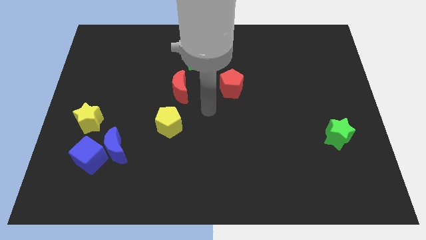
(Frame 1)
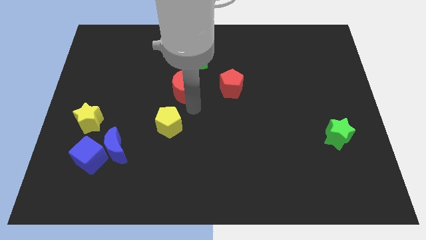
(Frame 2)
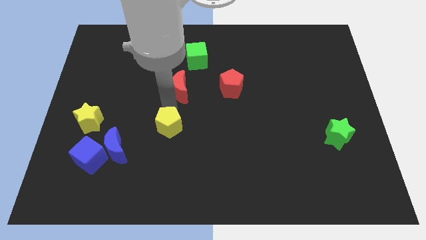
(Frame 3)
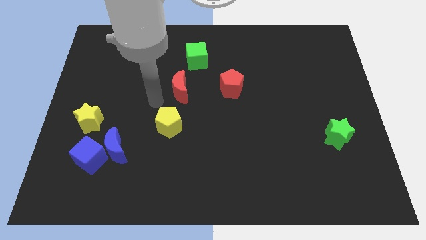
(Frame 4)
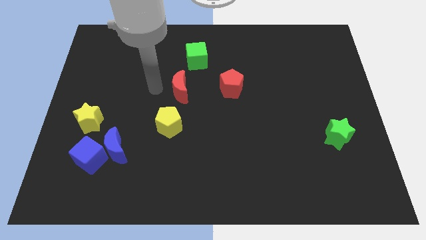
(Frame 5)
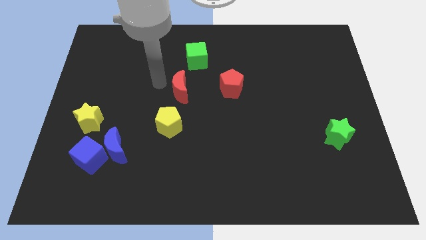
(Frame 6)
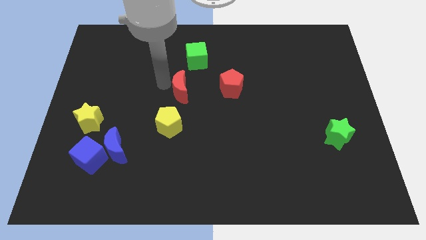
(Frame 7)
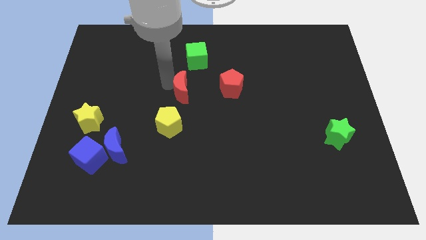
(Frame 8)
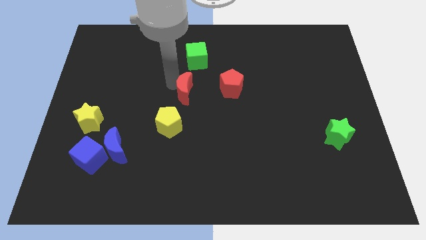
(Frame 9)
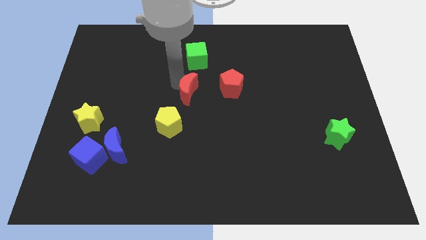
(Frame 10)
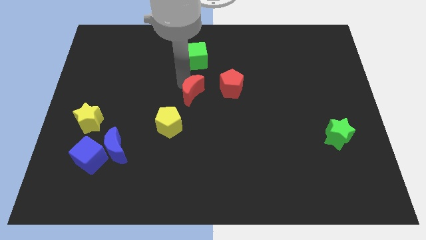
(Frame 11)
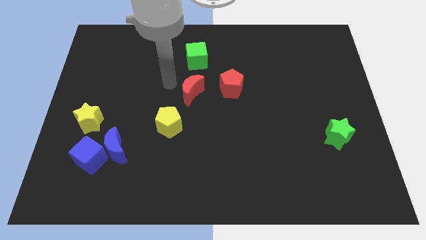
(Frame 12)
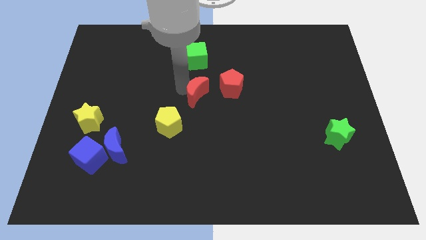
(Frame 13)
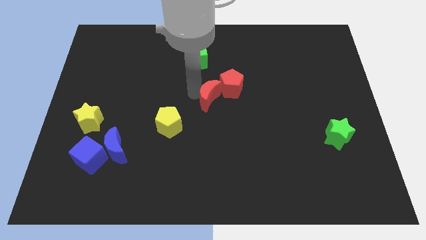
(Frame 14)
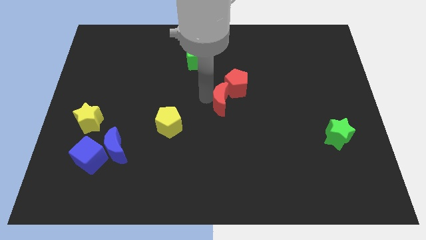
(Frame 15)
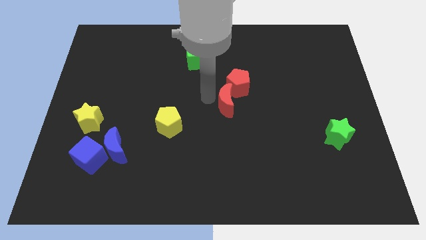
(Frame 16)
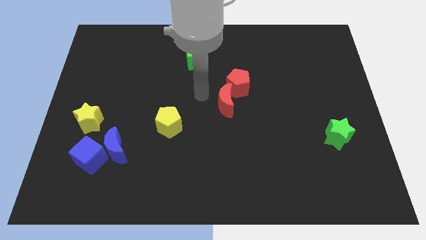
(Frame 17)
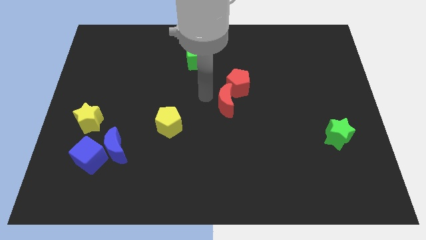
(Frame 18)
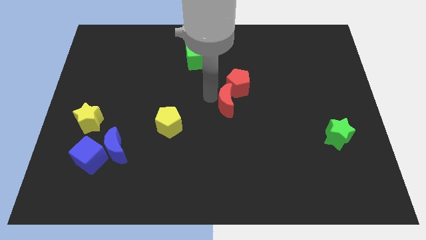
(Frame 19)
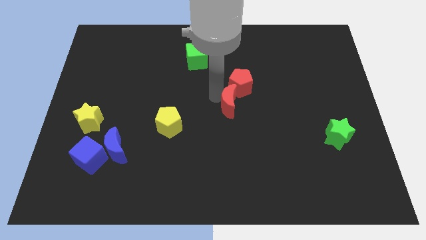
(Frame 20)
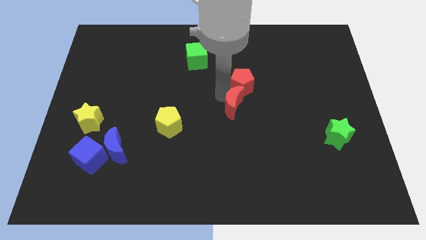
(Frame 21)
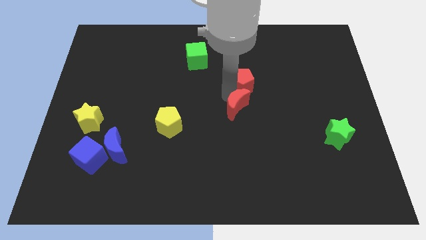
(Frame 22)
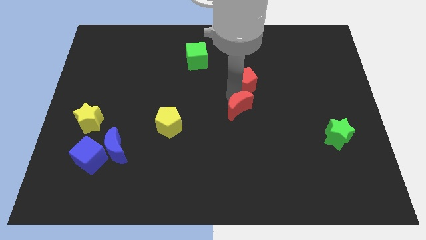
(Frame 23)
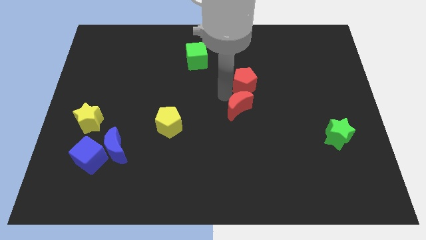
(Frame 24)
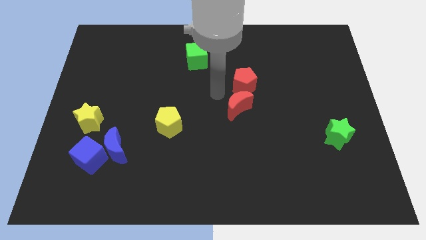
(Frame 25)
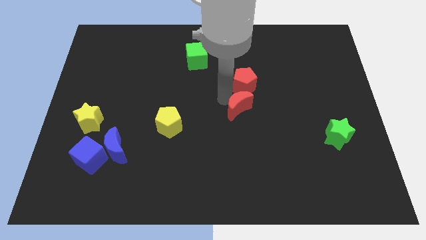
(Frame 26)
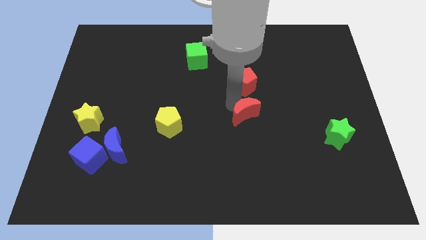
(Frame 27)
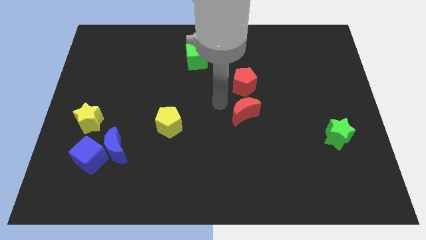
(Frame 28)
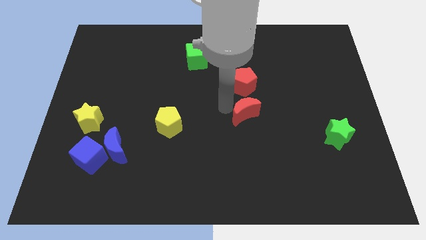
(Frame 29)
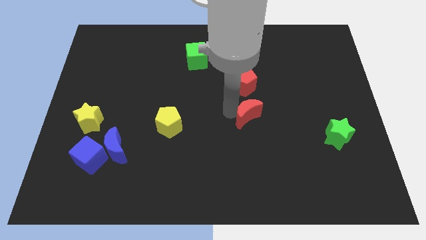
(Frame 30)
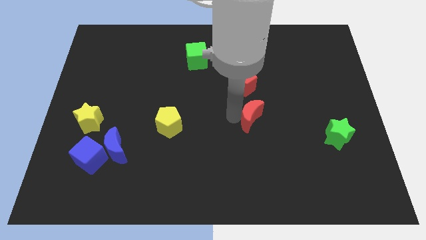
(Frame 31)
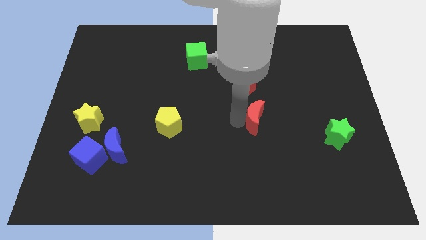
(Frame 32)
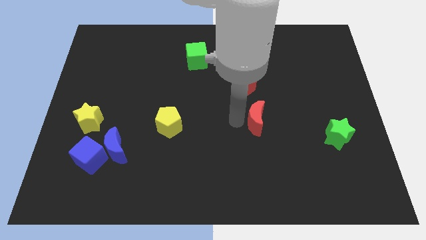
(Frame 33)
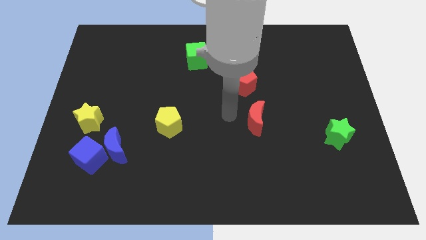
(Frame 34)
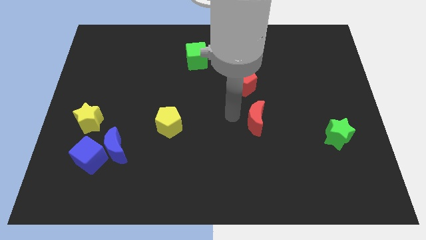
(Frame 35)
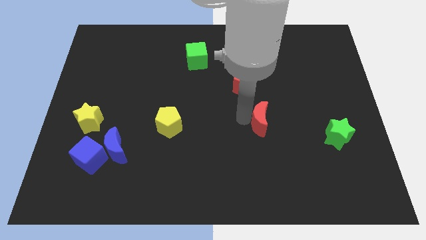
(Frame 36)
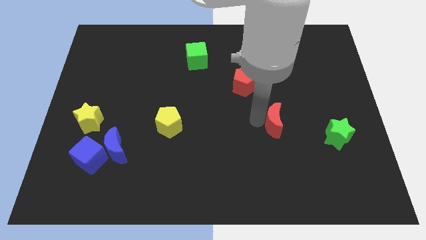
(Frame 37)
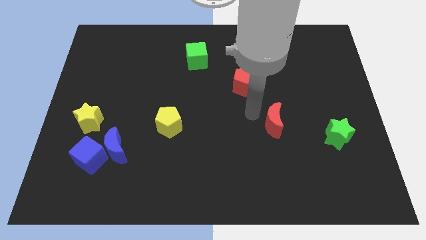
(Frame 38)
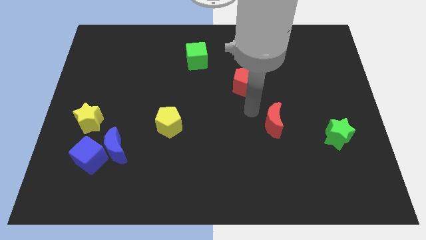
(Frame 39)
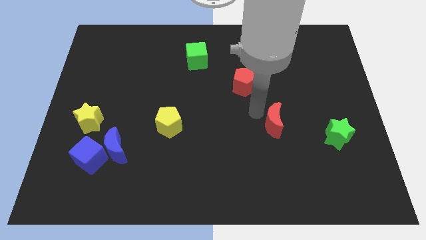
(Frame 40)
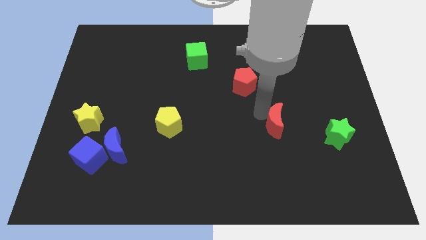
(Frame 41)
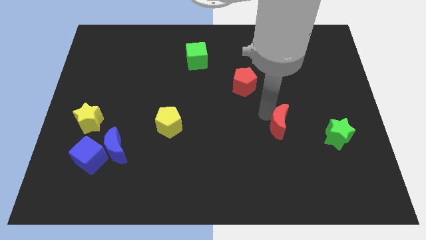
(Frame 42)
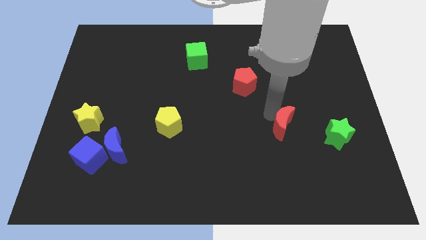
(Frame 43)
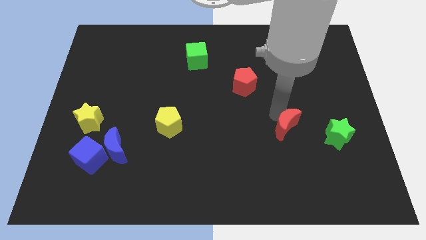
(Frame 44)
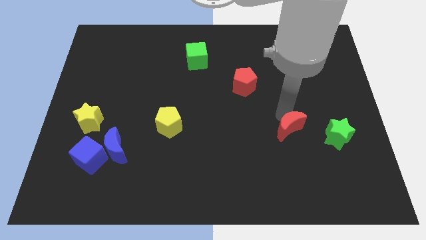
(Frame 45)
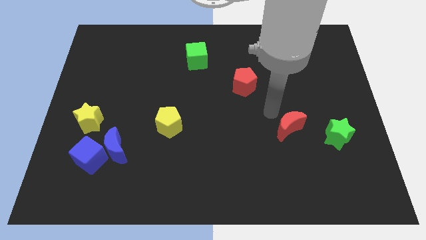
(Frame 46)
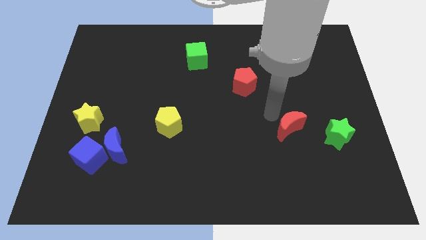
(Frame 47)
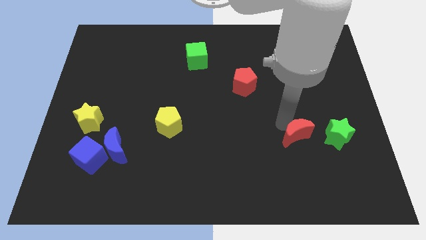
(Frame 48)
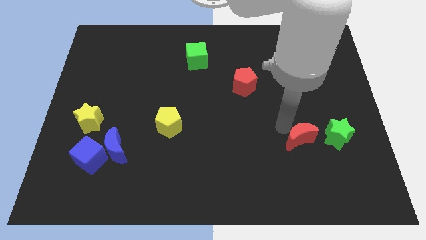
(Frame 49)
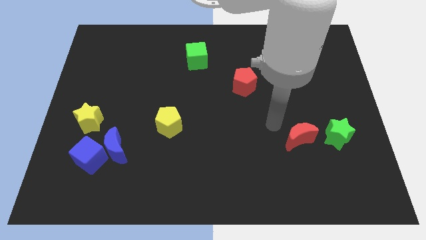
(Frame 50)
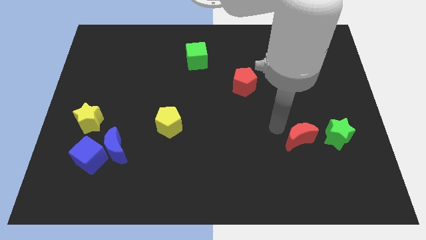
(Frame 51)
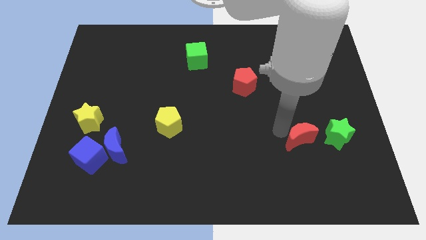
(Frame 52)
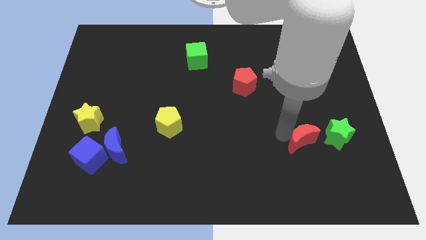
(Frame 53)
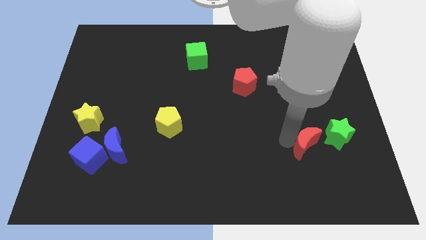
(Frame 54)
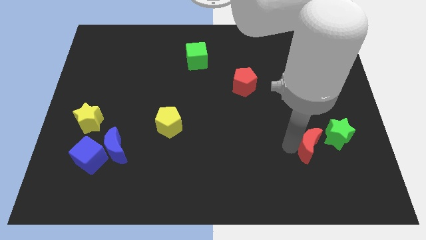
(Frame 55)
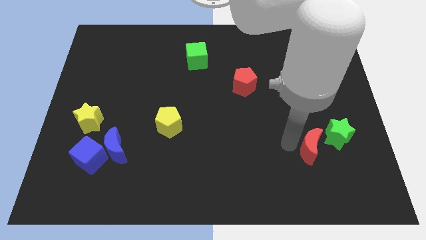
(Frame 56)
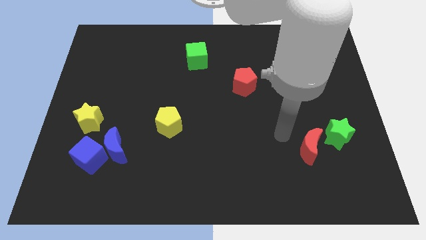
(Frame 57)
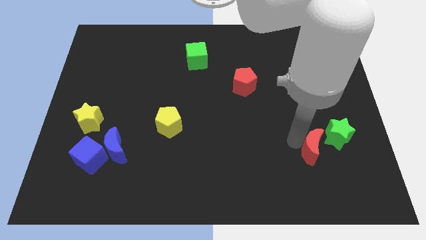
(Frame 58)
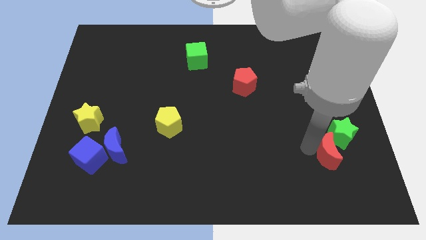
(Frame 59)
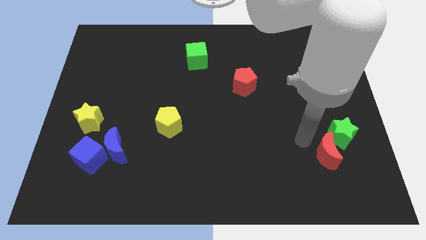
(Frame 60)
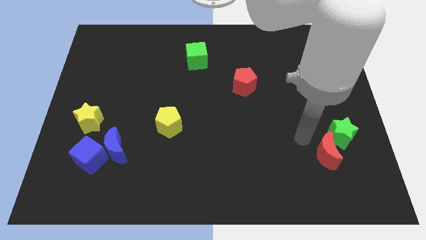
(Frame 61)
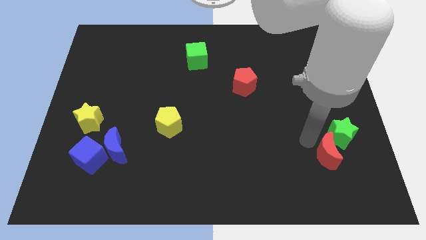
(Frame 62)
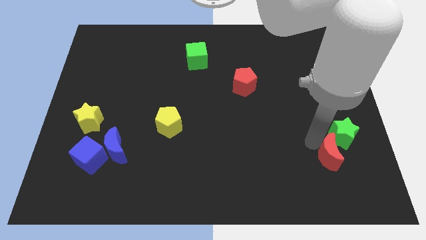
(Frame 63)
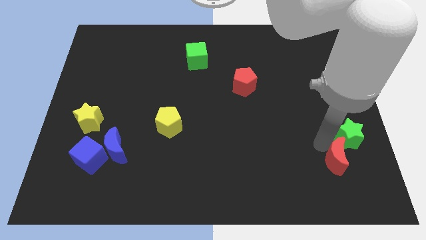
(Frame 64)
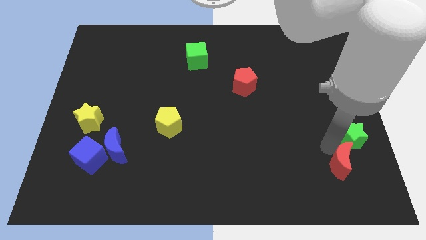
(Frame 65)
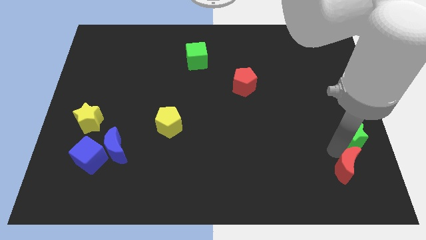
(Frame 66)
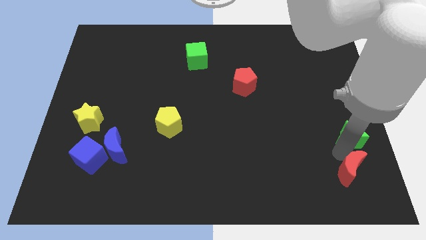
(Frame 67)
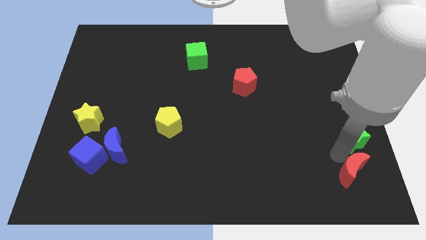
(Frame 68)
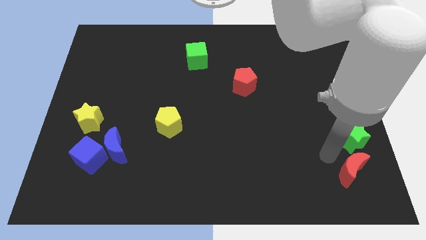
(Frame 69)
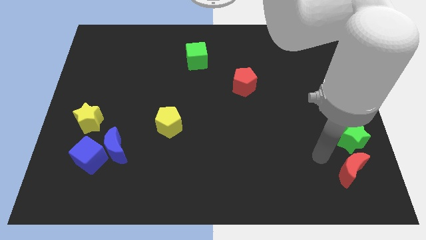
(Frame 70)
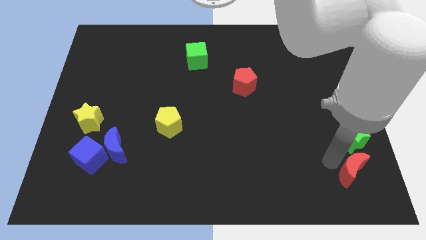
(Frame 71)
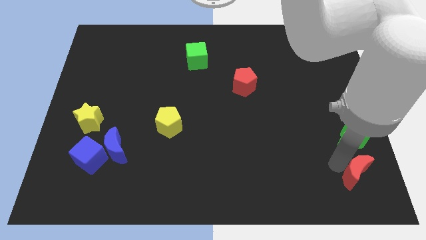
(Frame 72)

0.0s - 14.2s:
move the red moon to the bottom right of the board

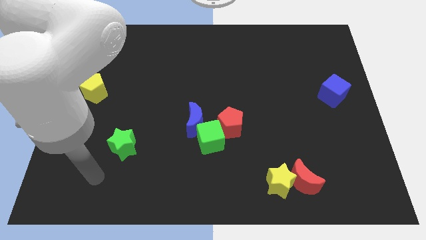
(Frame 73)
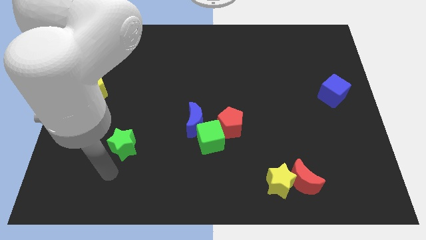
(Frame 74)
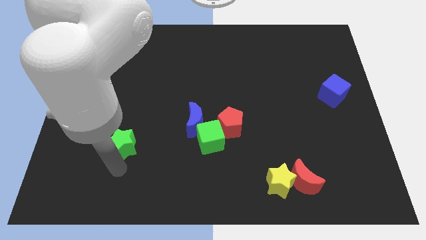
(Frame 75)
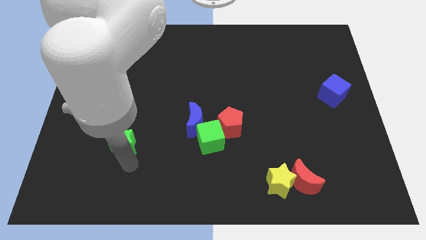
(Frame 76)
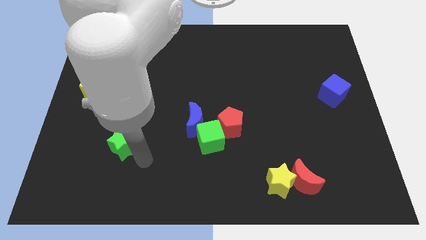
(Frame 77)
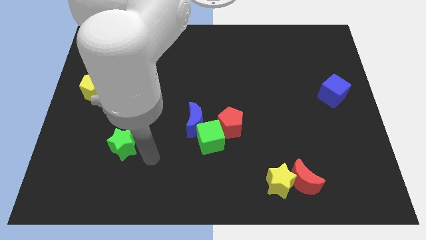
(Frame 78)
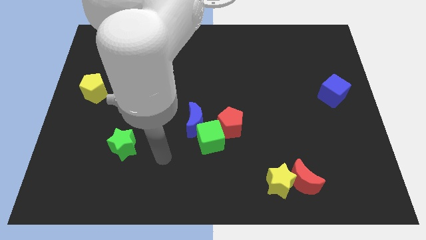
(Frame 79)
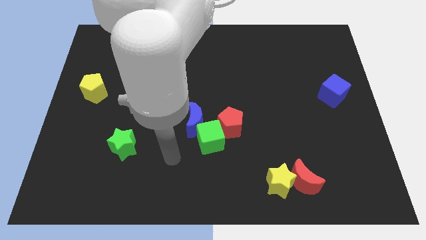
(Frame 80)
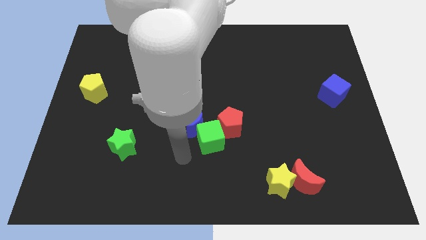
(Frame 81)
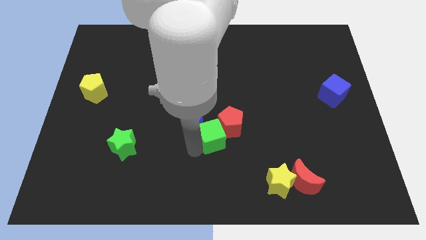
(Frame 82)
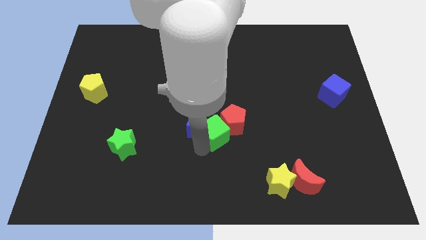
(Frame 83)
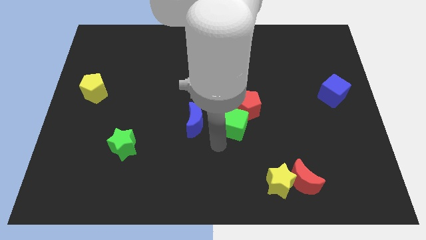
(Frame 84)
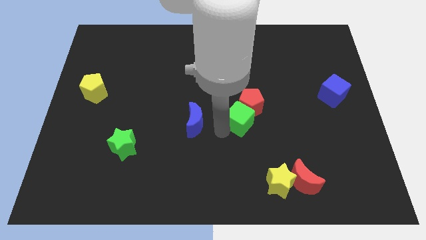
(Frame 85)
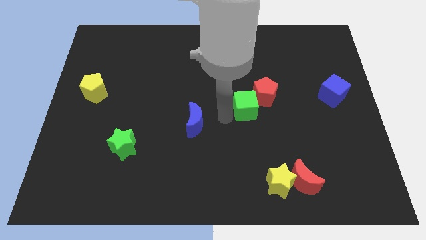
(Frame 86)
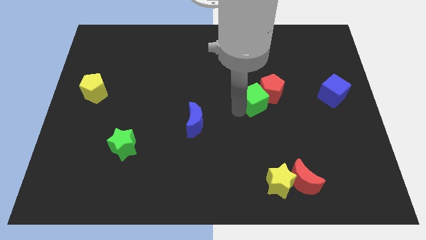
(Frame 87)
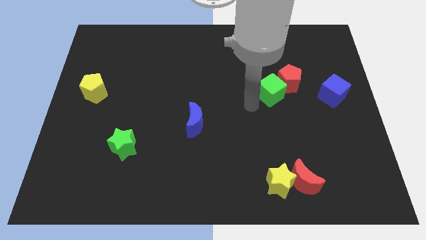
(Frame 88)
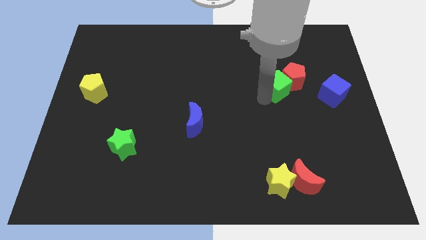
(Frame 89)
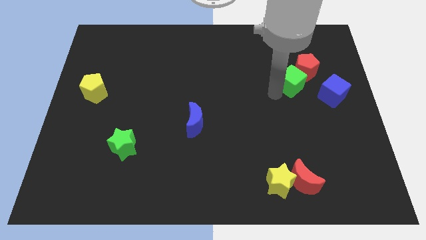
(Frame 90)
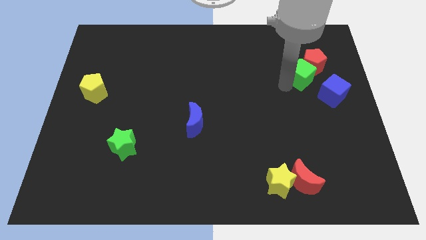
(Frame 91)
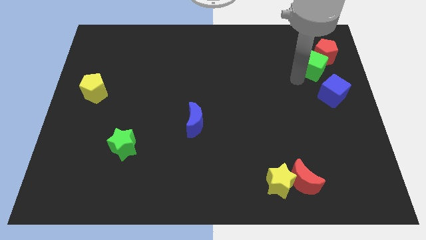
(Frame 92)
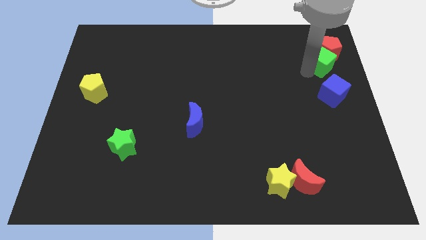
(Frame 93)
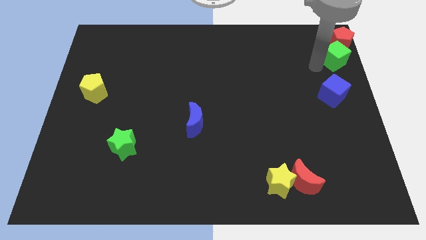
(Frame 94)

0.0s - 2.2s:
move the red pentagon to the top right
